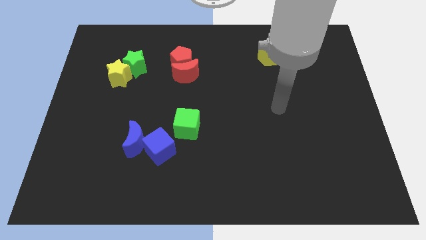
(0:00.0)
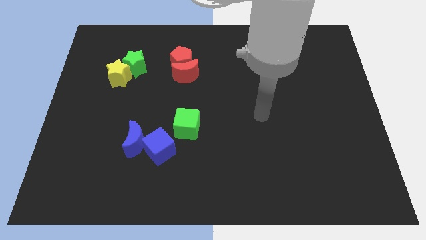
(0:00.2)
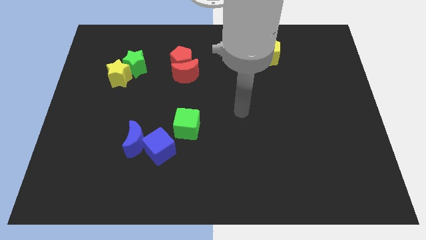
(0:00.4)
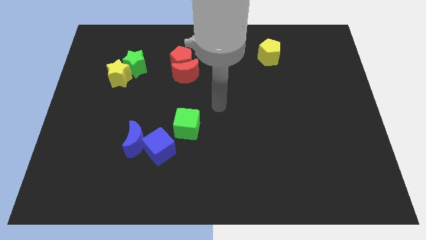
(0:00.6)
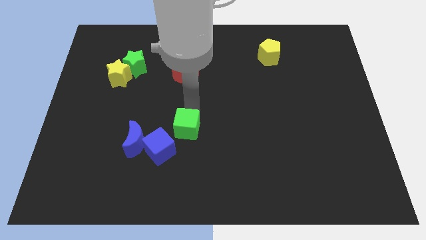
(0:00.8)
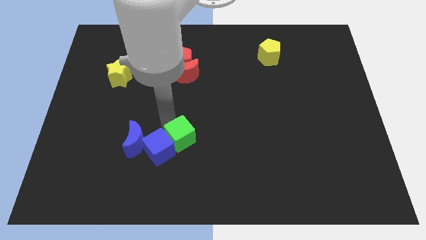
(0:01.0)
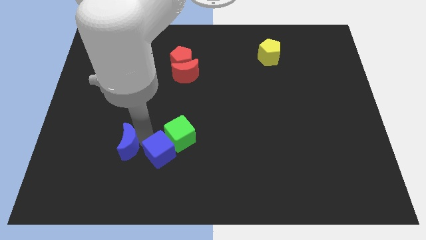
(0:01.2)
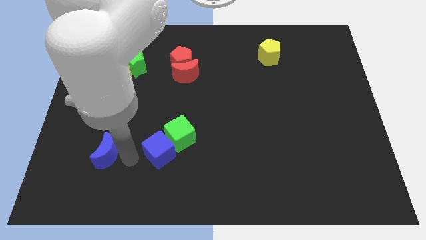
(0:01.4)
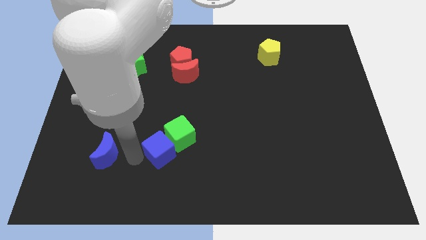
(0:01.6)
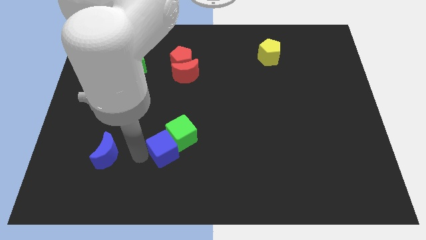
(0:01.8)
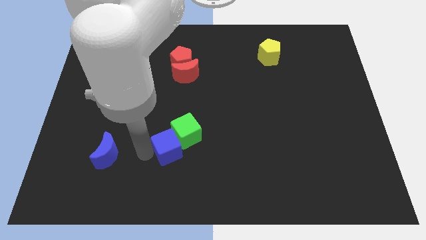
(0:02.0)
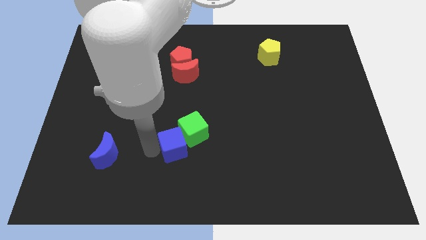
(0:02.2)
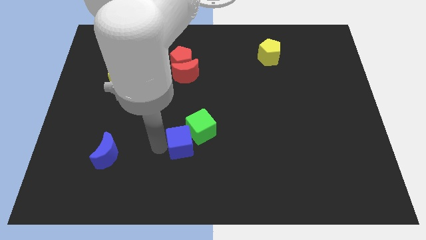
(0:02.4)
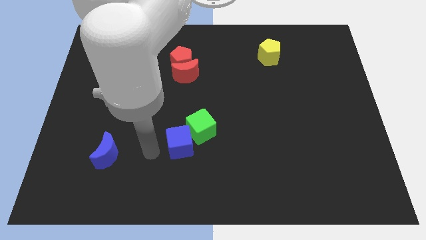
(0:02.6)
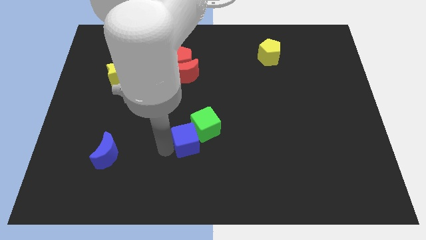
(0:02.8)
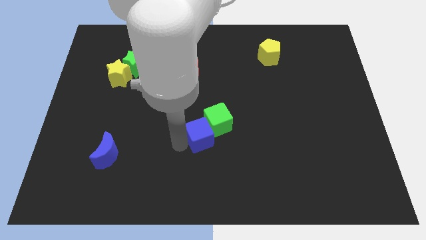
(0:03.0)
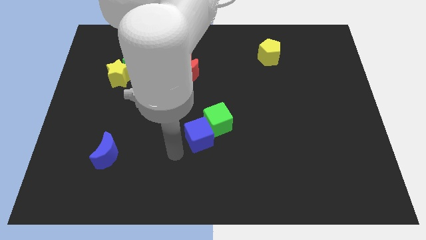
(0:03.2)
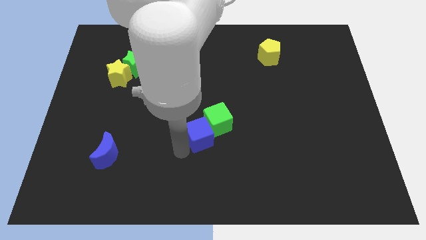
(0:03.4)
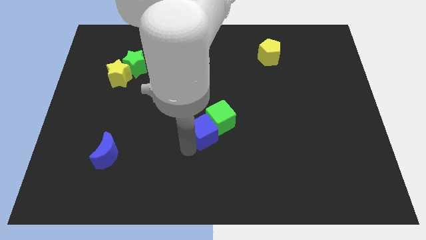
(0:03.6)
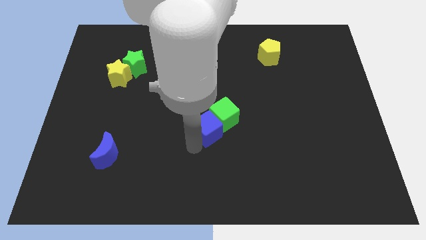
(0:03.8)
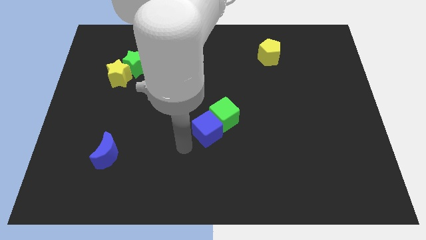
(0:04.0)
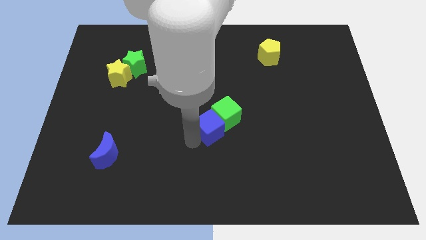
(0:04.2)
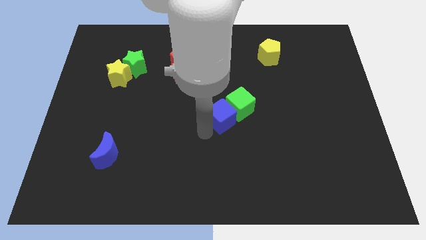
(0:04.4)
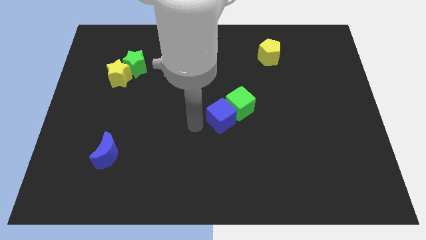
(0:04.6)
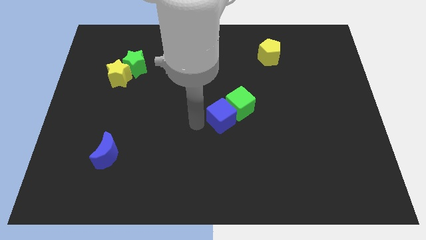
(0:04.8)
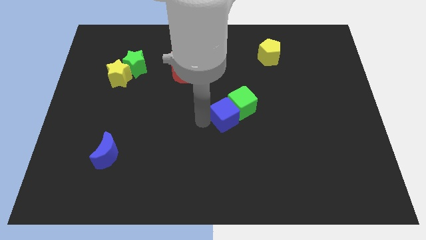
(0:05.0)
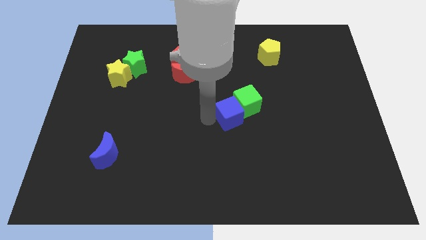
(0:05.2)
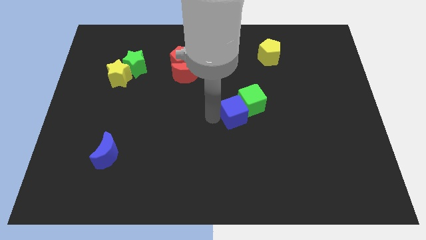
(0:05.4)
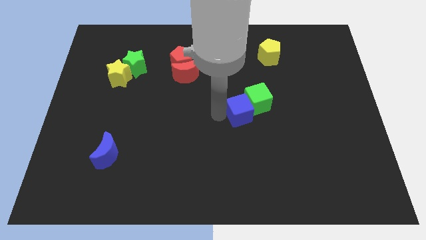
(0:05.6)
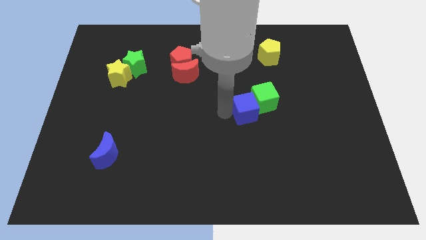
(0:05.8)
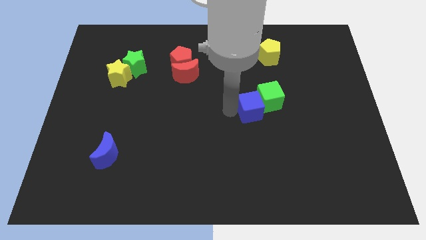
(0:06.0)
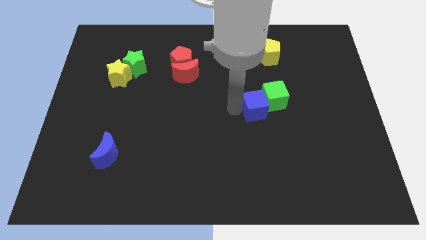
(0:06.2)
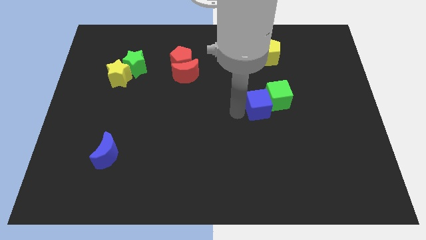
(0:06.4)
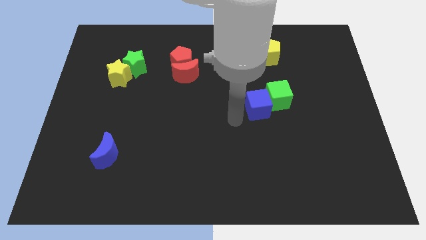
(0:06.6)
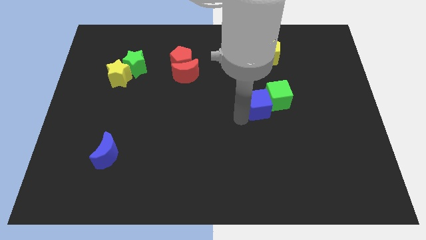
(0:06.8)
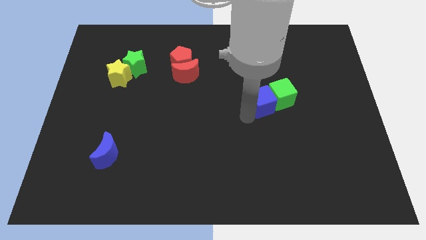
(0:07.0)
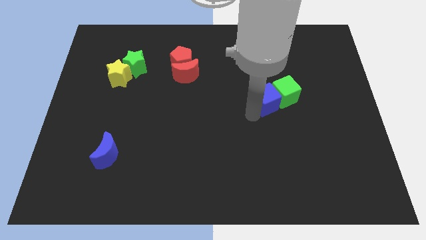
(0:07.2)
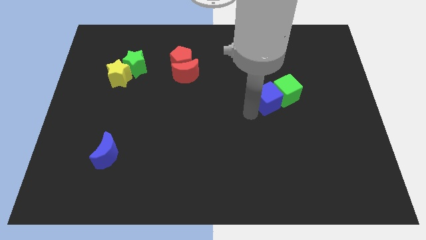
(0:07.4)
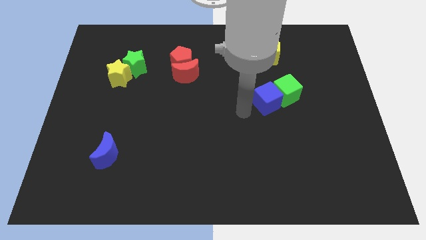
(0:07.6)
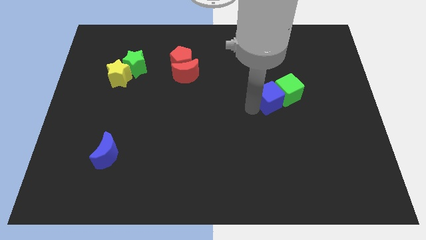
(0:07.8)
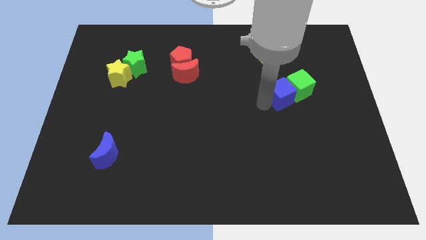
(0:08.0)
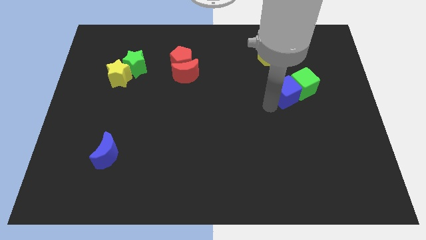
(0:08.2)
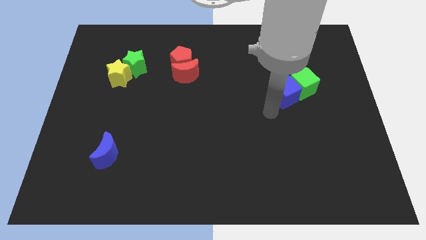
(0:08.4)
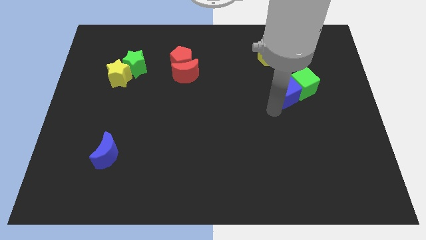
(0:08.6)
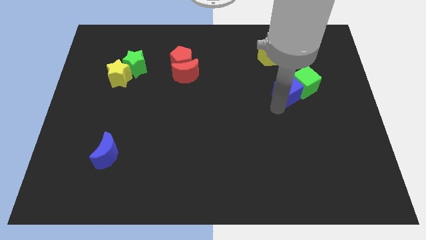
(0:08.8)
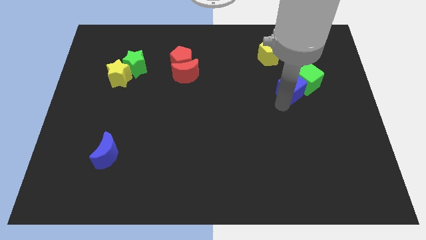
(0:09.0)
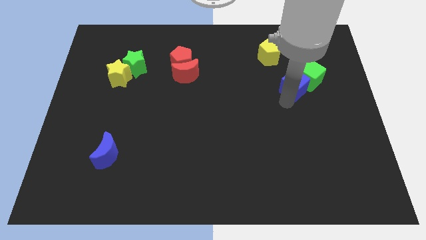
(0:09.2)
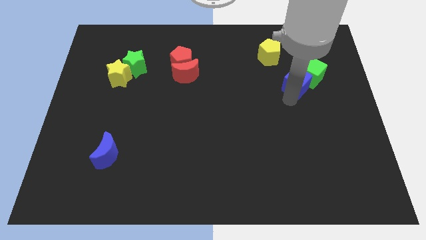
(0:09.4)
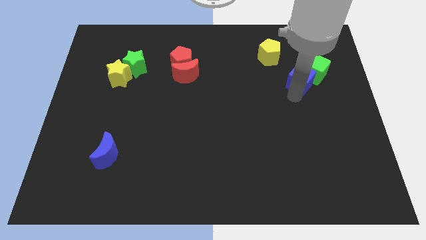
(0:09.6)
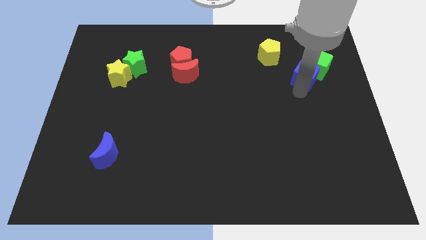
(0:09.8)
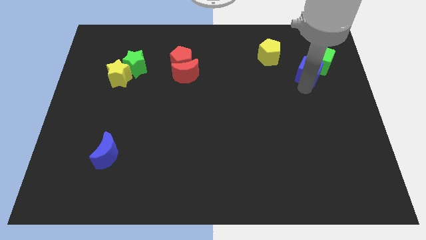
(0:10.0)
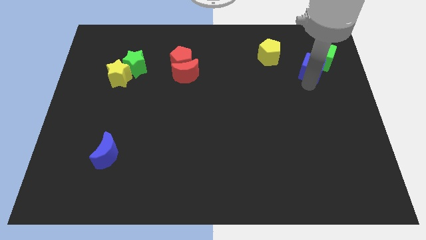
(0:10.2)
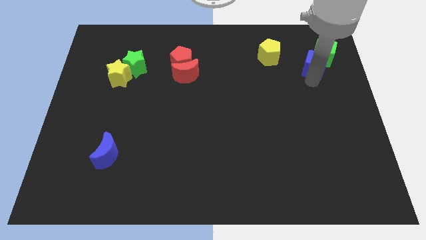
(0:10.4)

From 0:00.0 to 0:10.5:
slide the blue cube just right of the yellow pentagon

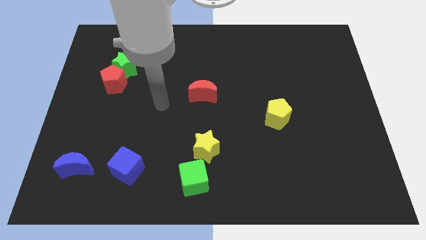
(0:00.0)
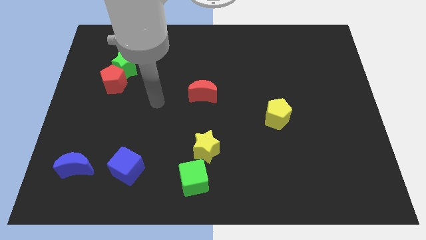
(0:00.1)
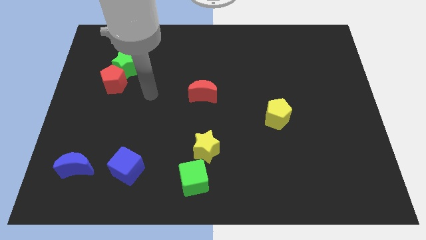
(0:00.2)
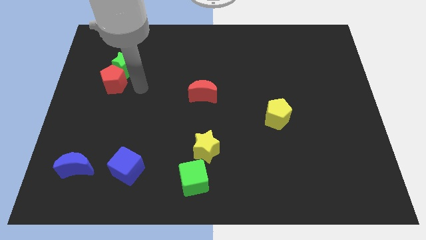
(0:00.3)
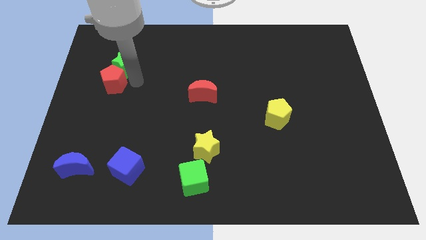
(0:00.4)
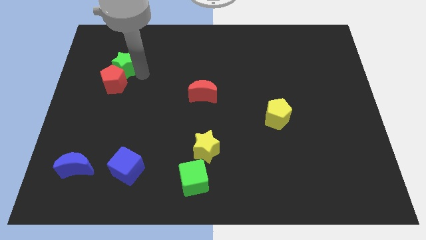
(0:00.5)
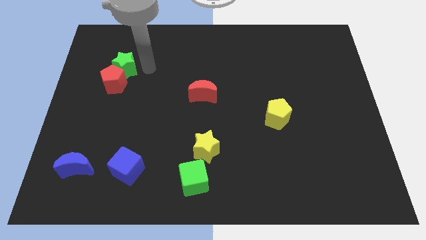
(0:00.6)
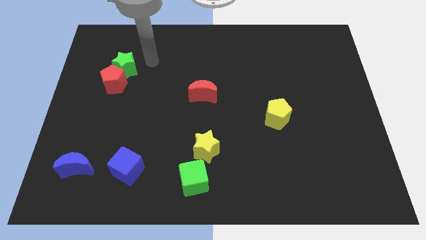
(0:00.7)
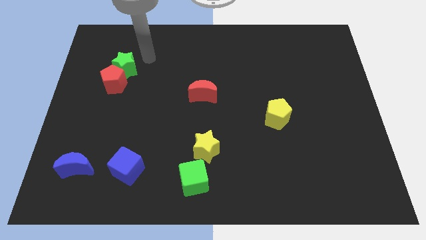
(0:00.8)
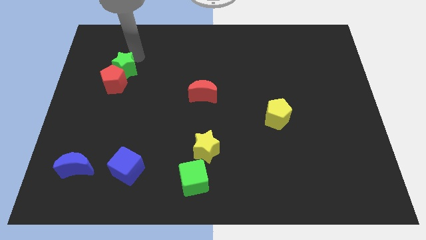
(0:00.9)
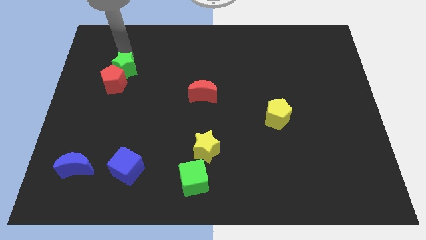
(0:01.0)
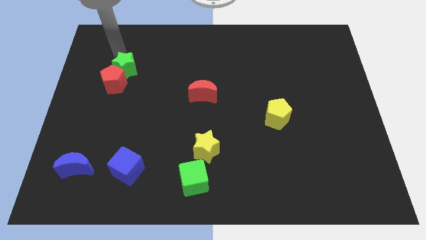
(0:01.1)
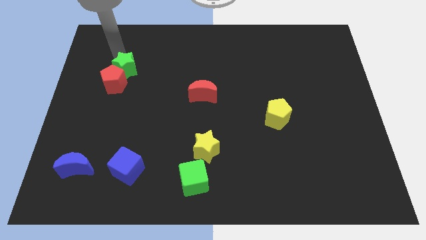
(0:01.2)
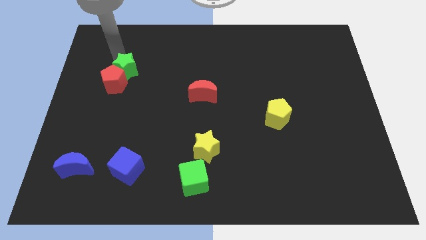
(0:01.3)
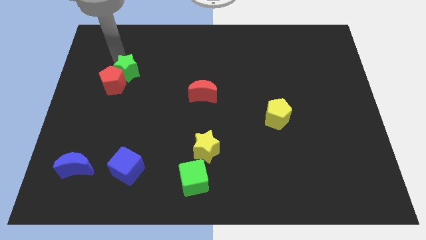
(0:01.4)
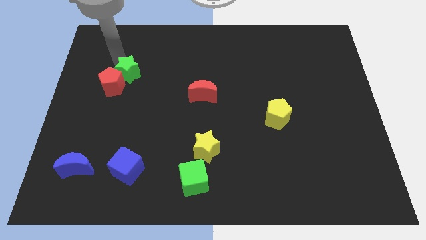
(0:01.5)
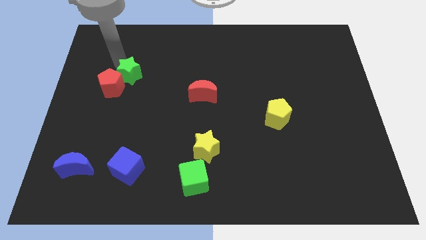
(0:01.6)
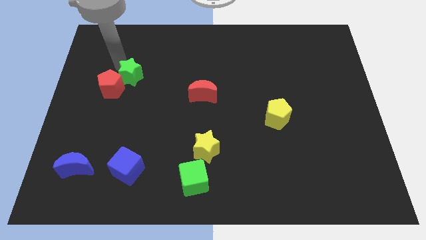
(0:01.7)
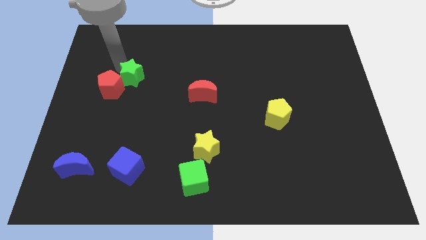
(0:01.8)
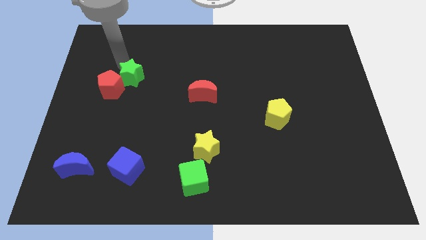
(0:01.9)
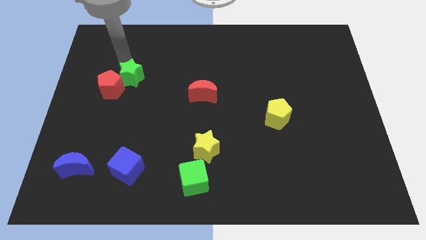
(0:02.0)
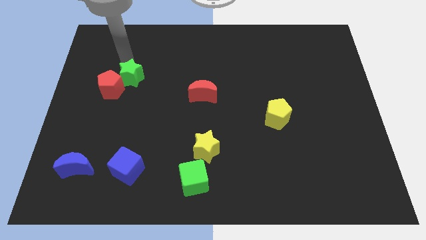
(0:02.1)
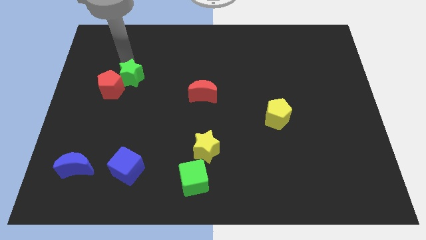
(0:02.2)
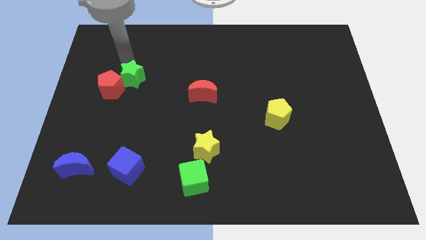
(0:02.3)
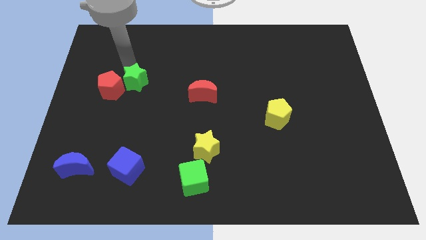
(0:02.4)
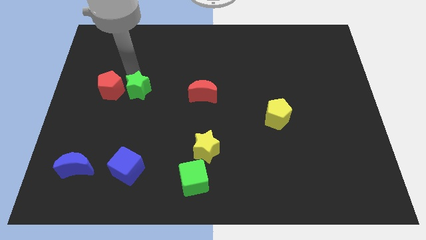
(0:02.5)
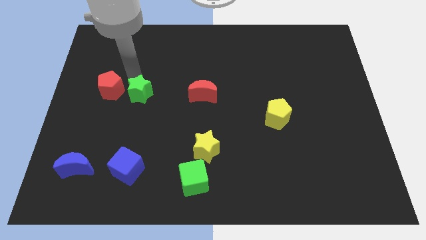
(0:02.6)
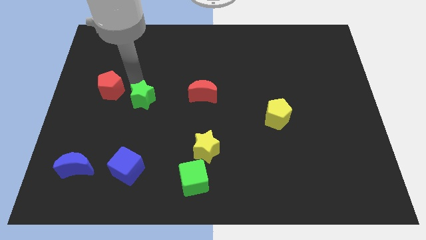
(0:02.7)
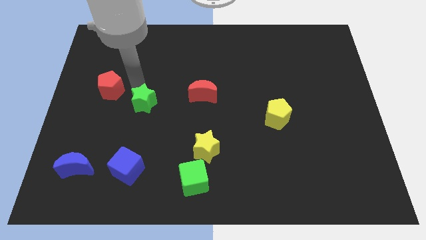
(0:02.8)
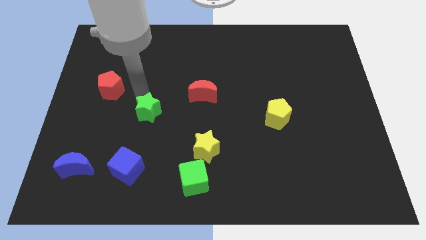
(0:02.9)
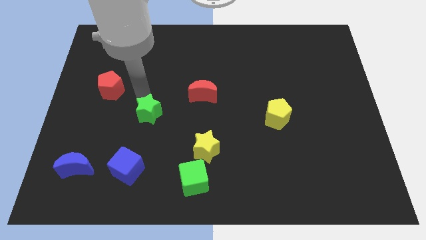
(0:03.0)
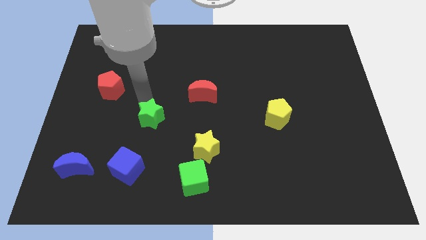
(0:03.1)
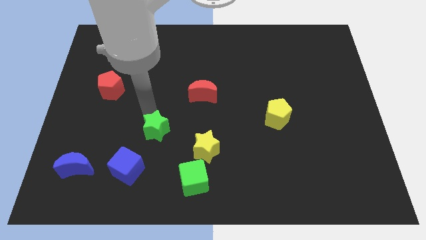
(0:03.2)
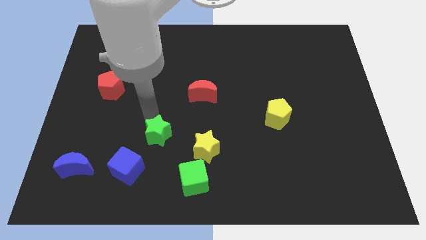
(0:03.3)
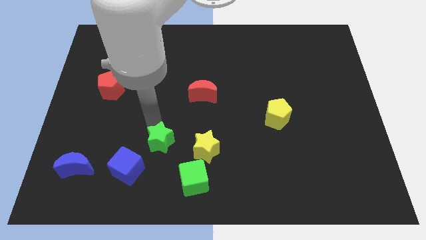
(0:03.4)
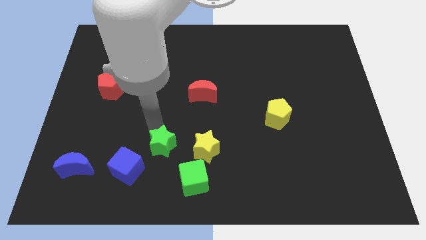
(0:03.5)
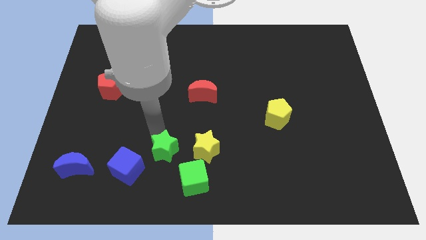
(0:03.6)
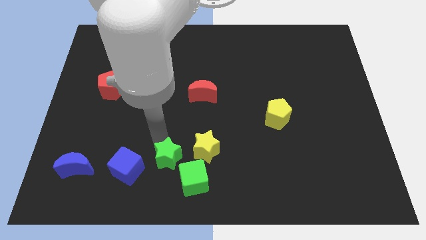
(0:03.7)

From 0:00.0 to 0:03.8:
slide the green star to the bottom left side of the yellow star
